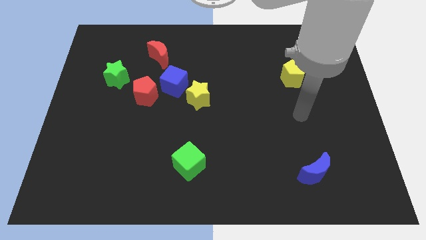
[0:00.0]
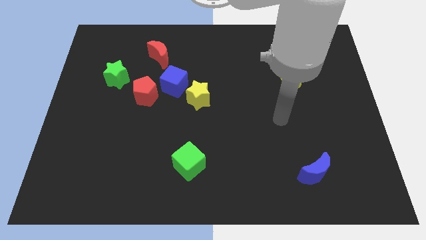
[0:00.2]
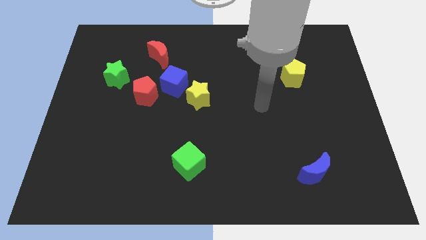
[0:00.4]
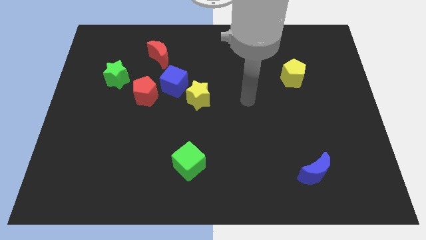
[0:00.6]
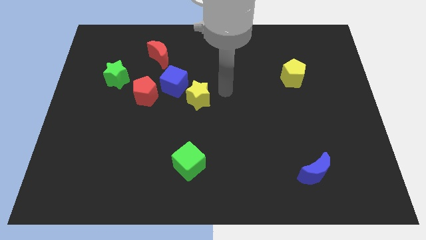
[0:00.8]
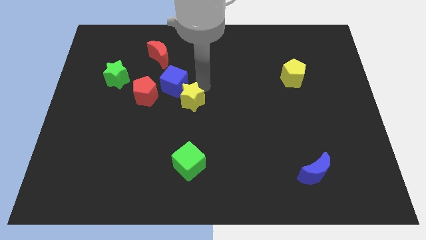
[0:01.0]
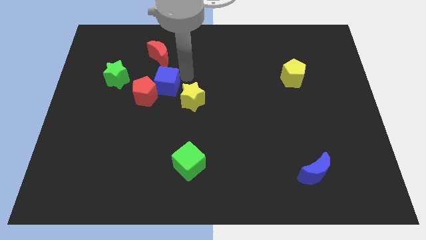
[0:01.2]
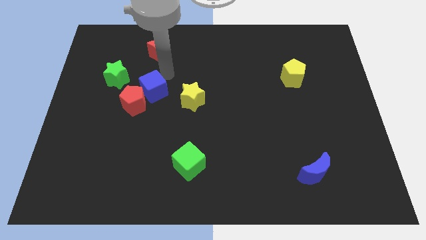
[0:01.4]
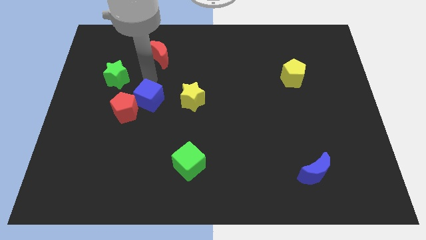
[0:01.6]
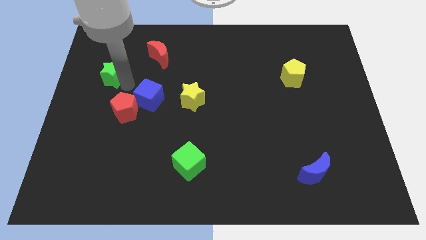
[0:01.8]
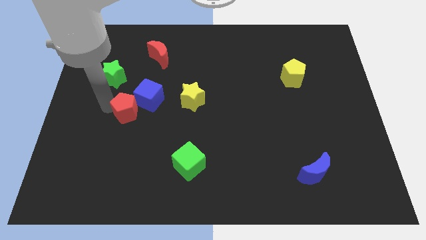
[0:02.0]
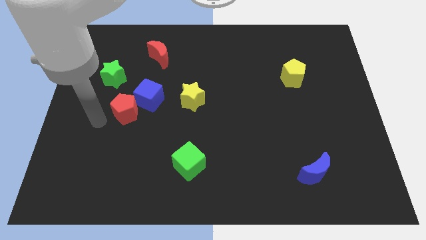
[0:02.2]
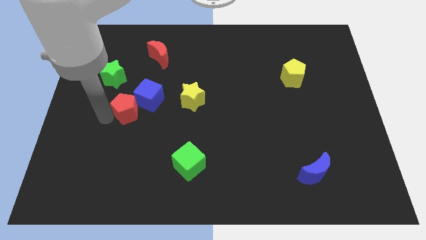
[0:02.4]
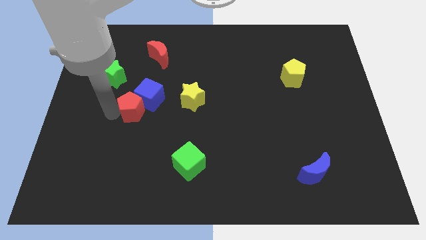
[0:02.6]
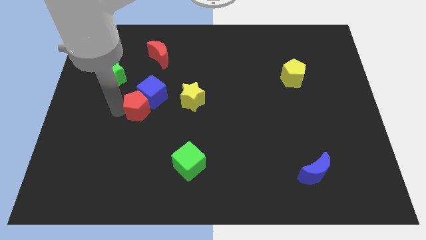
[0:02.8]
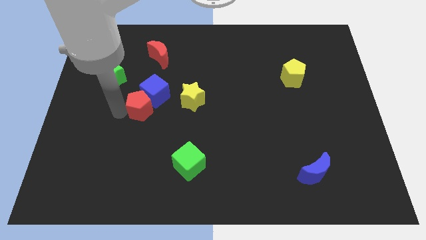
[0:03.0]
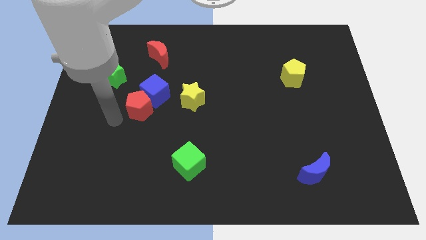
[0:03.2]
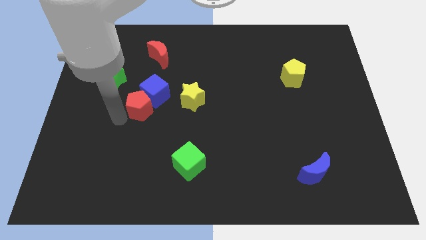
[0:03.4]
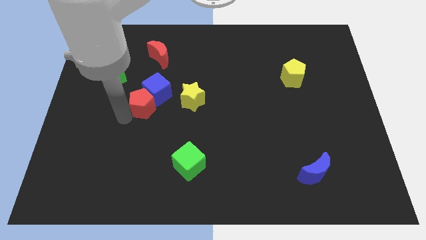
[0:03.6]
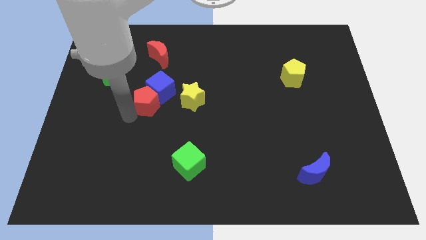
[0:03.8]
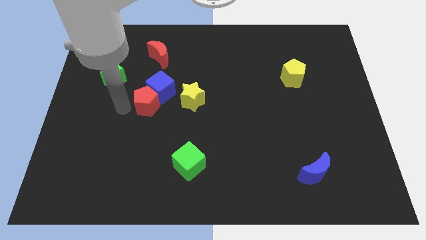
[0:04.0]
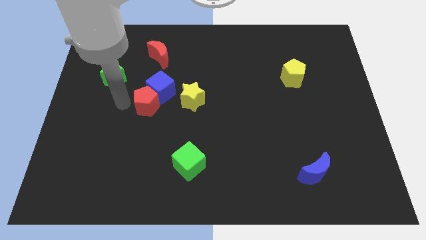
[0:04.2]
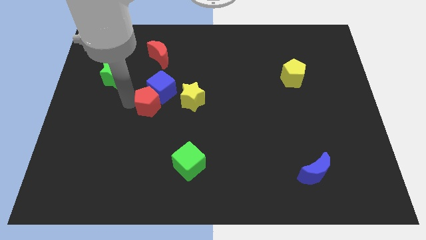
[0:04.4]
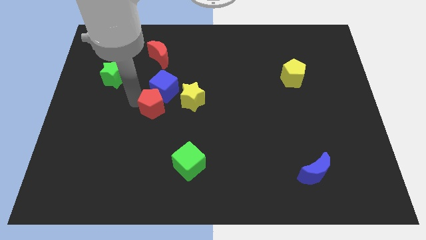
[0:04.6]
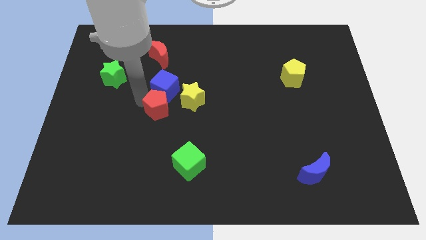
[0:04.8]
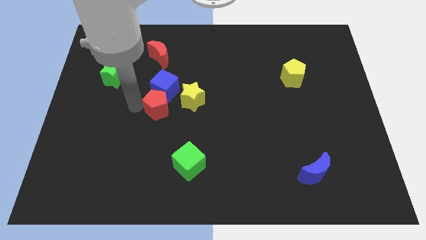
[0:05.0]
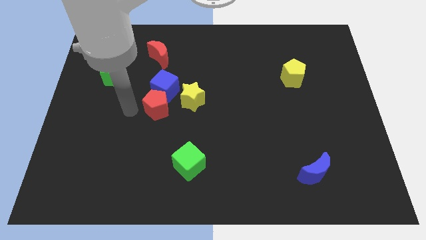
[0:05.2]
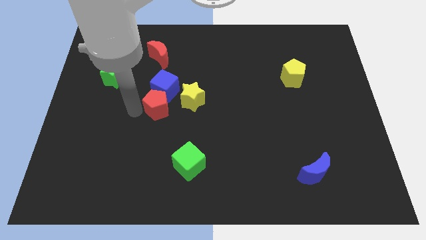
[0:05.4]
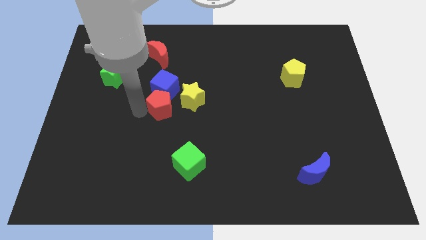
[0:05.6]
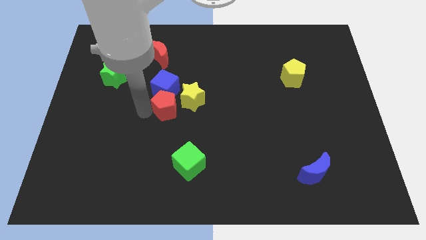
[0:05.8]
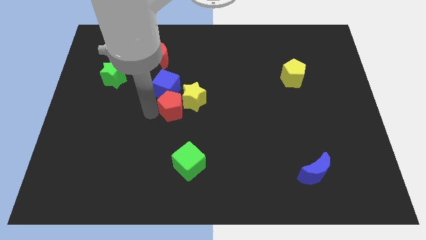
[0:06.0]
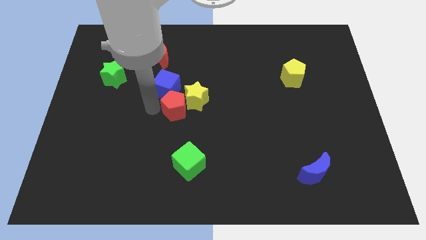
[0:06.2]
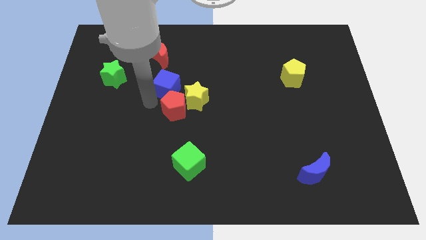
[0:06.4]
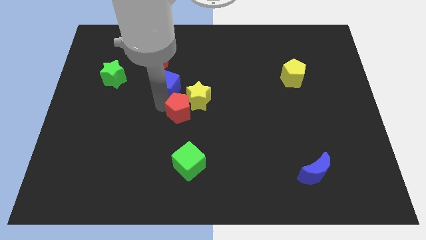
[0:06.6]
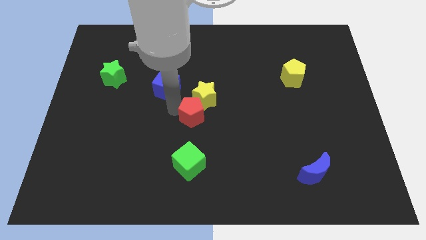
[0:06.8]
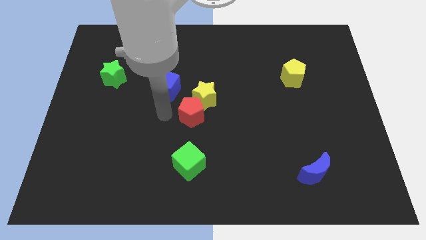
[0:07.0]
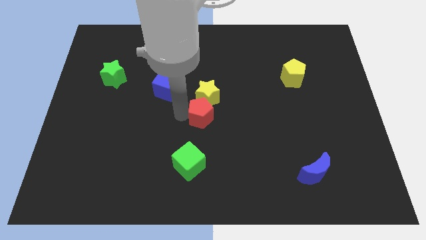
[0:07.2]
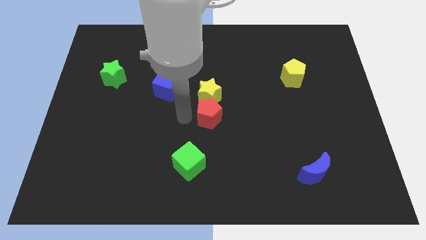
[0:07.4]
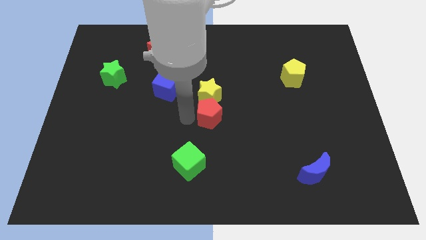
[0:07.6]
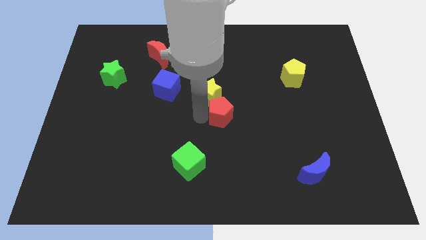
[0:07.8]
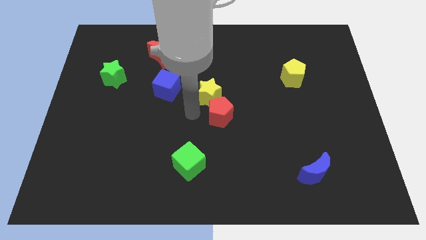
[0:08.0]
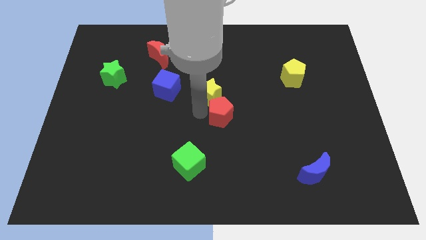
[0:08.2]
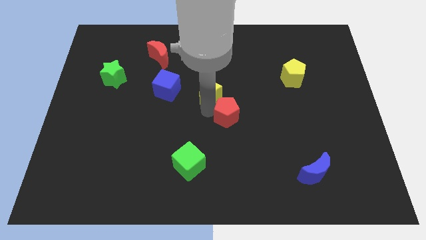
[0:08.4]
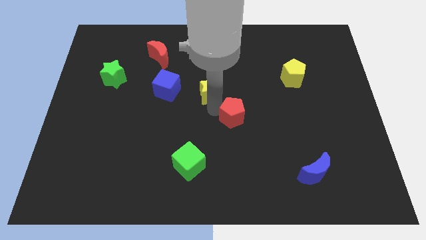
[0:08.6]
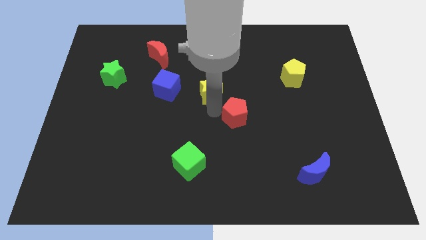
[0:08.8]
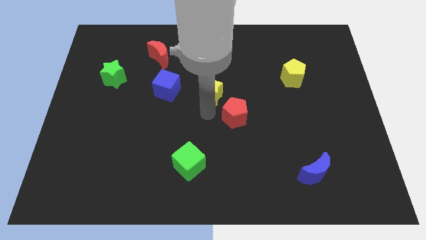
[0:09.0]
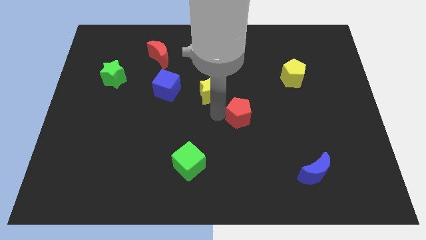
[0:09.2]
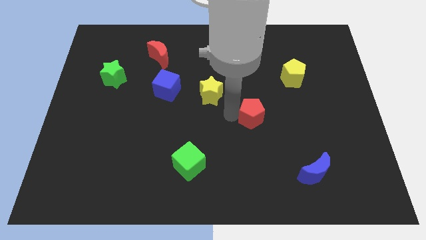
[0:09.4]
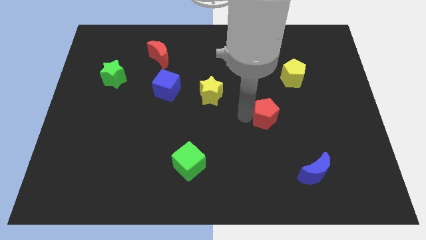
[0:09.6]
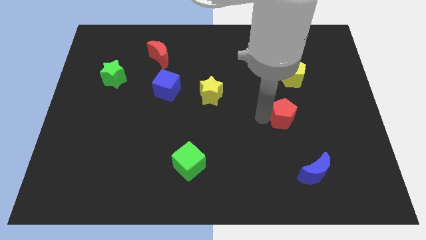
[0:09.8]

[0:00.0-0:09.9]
slide the red pentagon to the bottom of the yellow pentagon

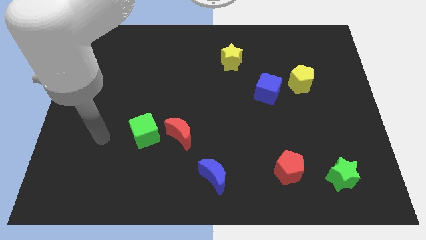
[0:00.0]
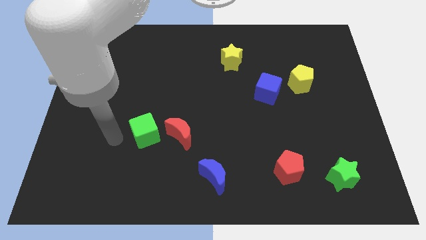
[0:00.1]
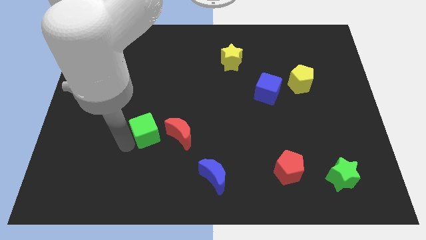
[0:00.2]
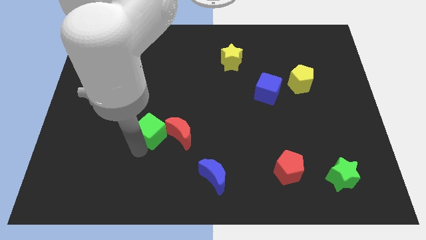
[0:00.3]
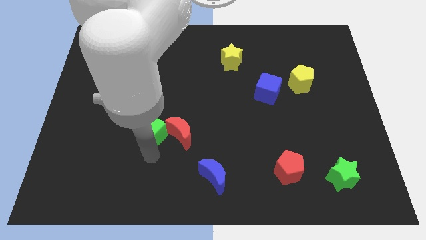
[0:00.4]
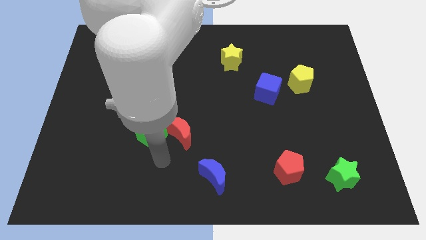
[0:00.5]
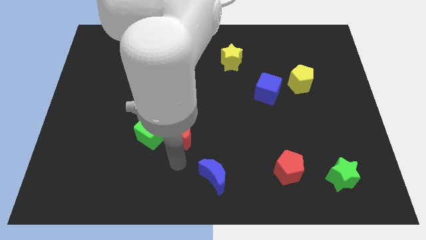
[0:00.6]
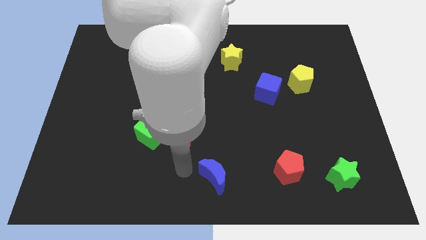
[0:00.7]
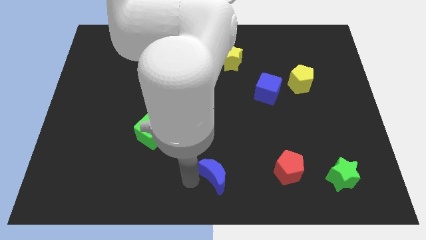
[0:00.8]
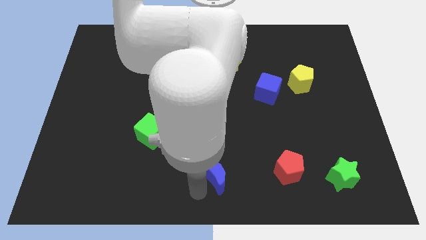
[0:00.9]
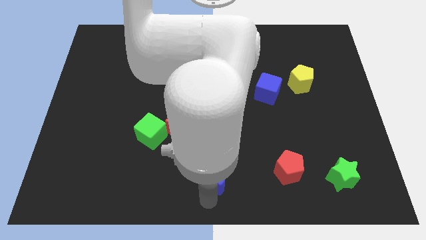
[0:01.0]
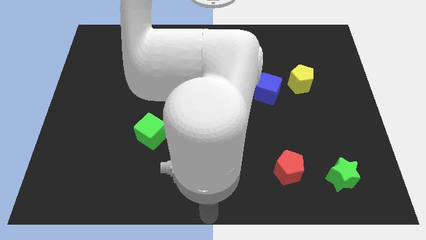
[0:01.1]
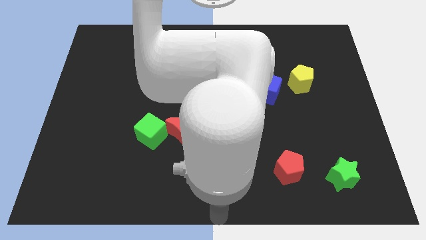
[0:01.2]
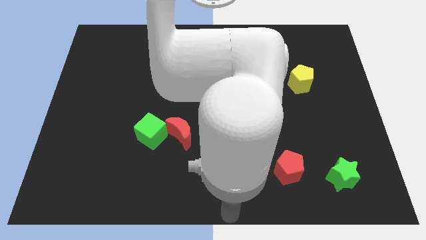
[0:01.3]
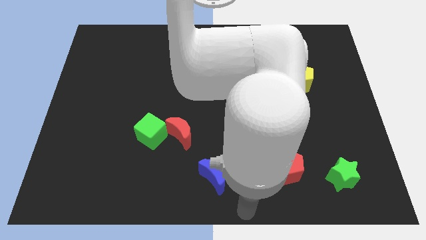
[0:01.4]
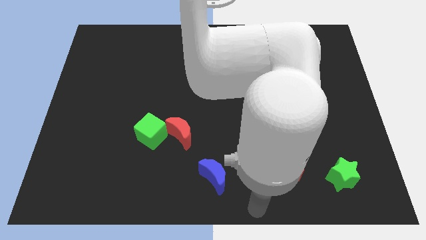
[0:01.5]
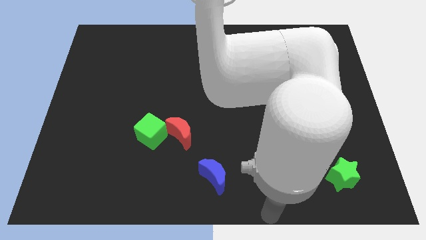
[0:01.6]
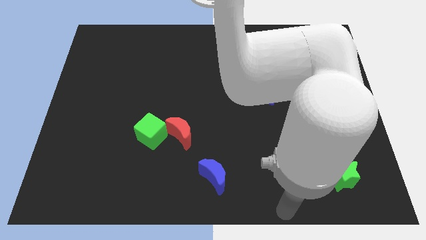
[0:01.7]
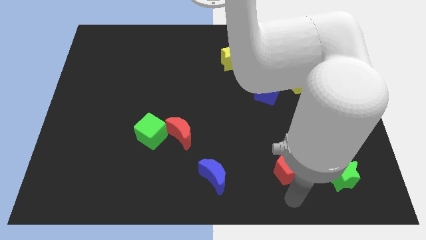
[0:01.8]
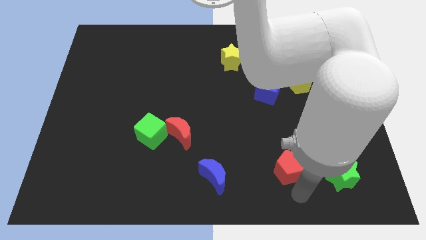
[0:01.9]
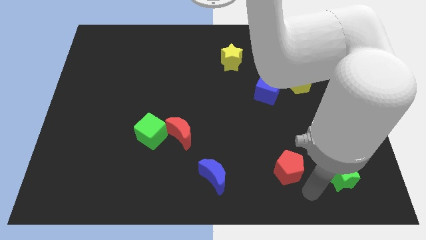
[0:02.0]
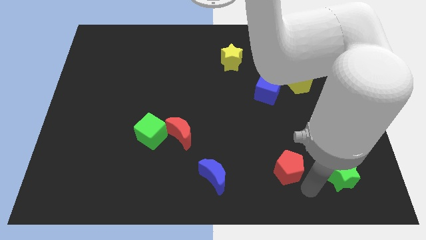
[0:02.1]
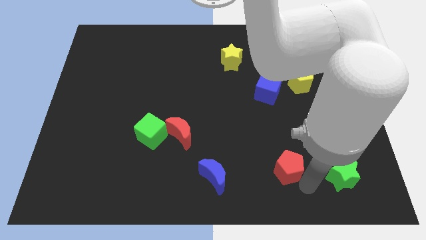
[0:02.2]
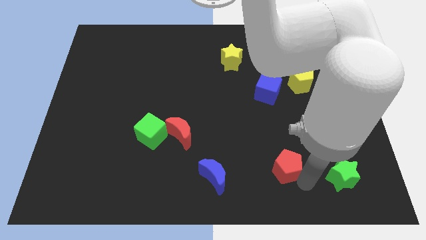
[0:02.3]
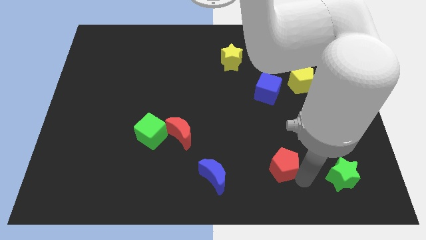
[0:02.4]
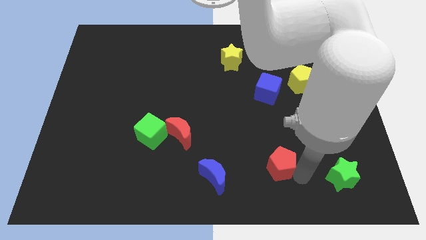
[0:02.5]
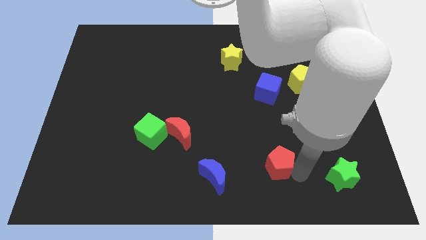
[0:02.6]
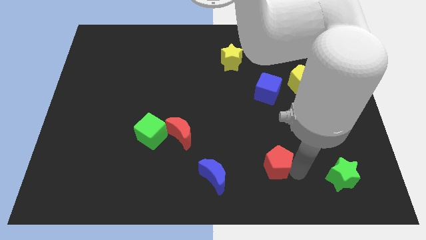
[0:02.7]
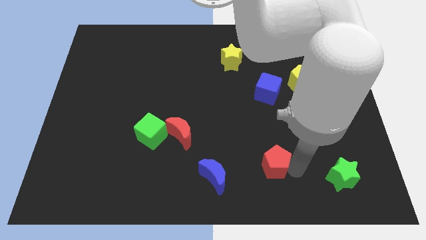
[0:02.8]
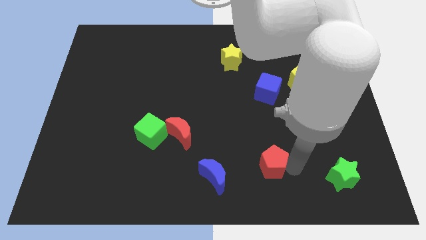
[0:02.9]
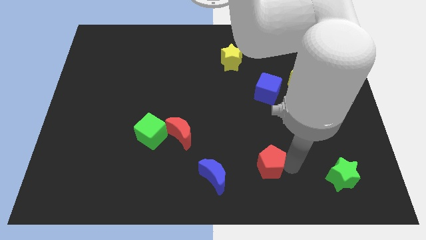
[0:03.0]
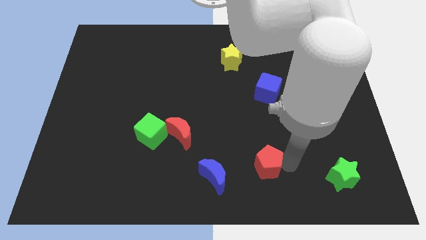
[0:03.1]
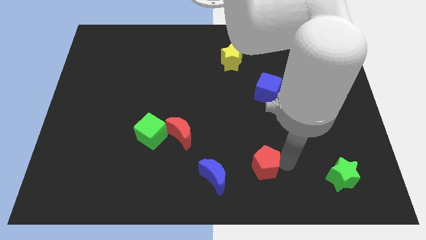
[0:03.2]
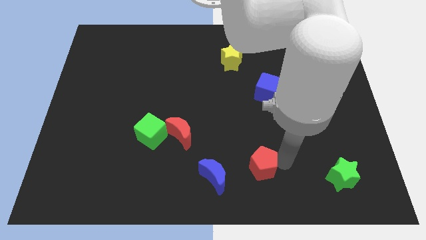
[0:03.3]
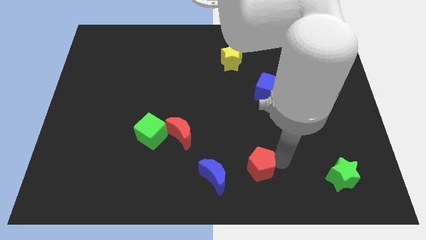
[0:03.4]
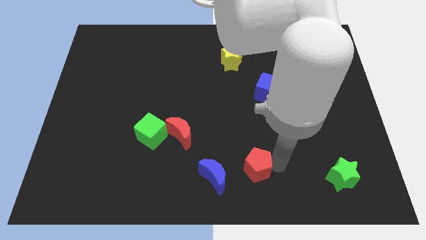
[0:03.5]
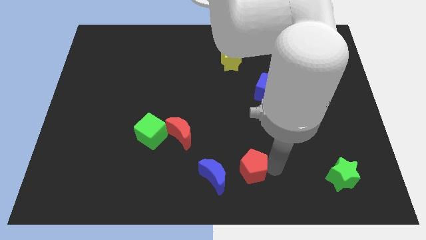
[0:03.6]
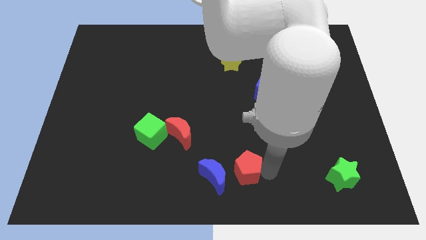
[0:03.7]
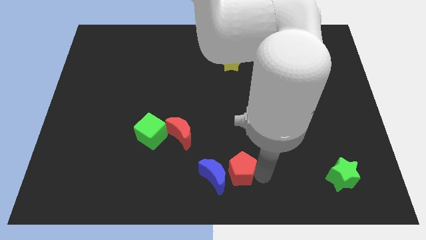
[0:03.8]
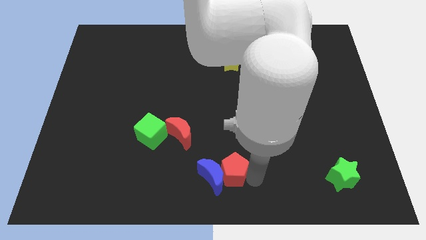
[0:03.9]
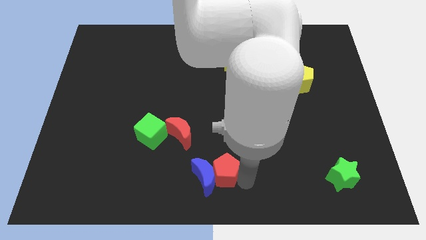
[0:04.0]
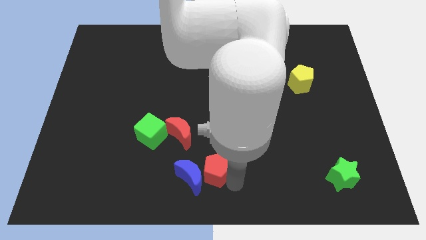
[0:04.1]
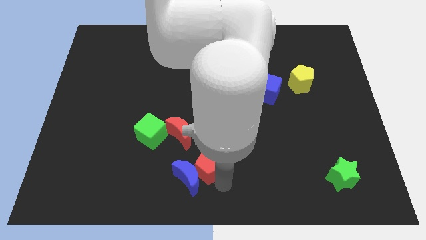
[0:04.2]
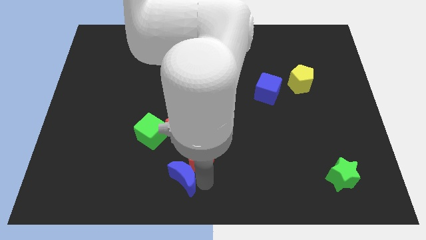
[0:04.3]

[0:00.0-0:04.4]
move the red pentagon to the top of the blue moon
